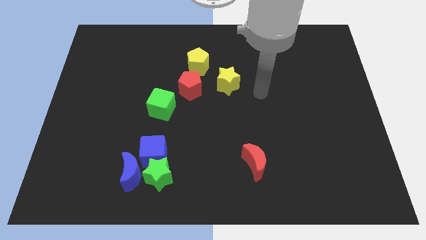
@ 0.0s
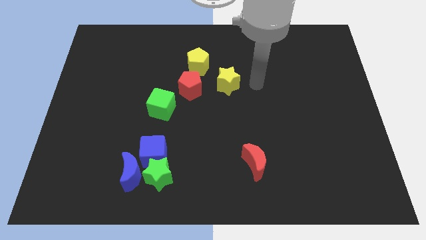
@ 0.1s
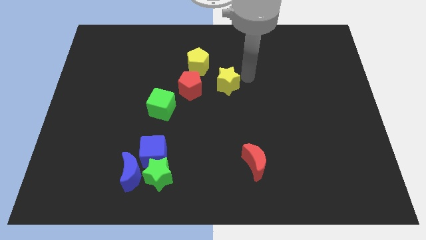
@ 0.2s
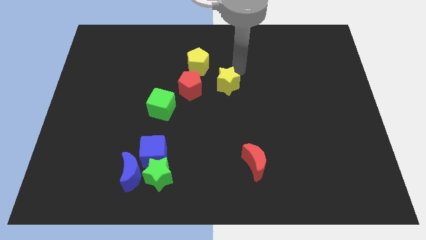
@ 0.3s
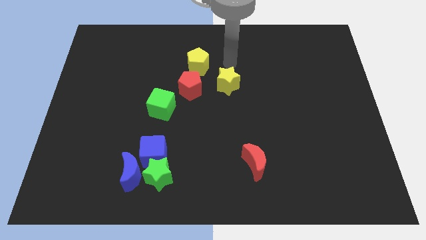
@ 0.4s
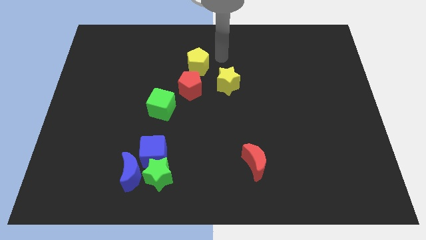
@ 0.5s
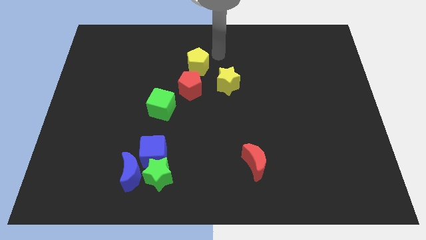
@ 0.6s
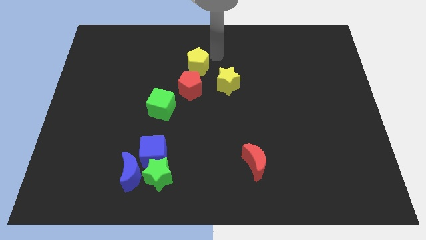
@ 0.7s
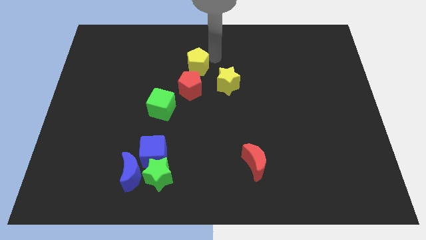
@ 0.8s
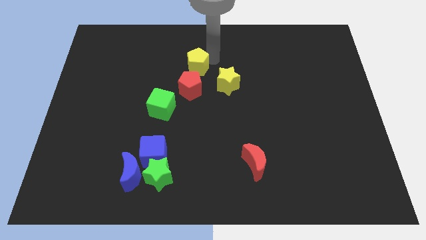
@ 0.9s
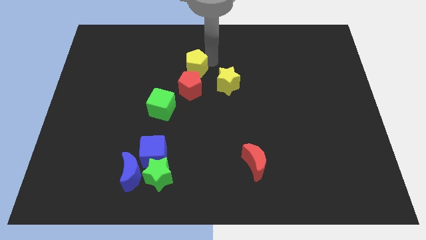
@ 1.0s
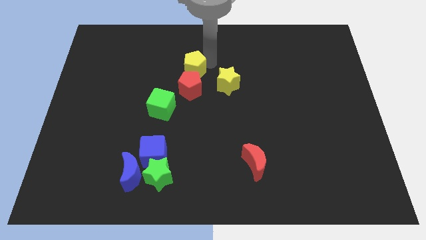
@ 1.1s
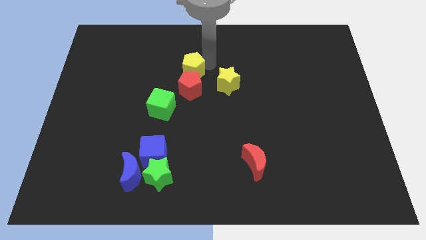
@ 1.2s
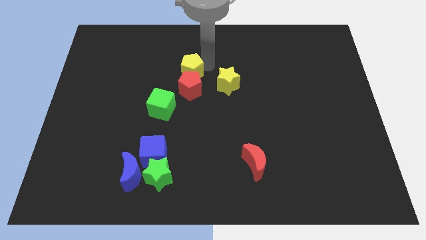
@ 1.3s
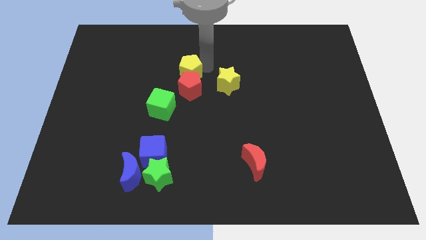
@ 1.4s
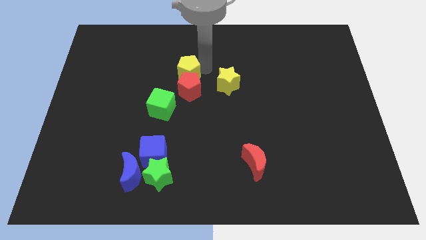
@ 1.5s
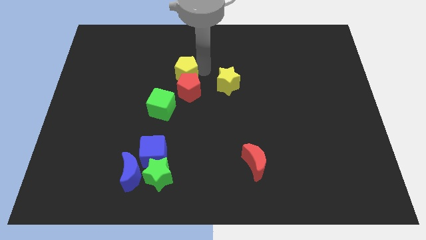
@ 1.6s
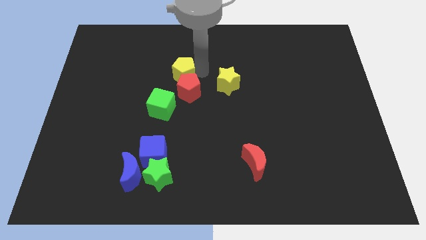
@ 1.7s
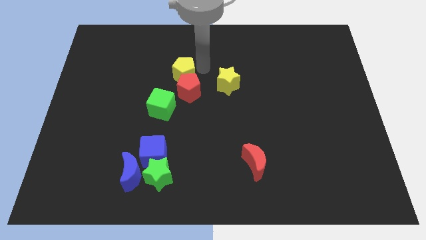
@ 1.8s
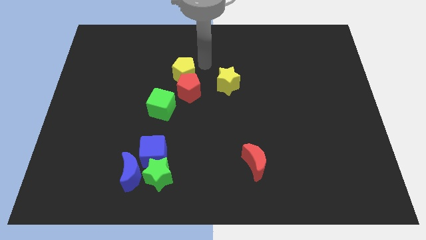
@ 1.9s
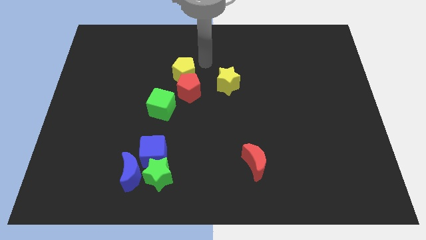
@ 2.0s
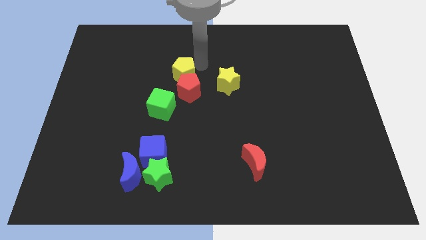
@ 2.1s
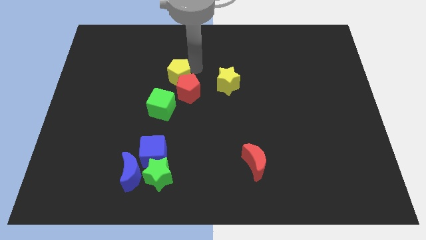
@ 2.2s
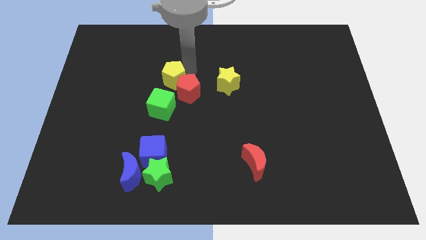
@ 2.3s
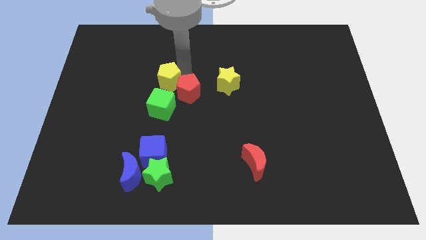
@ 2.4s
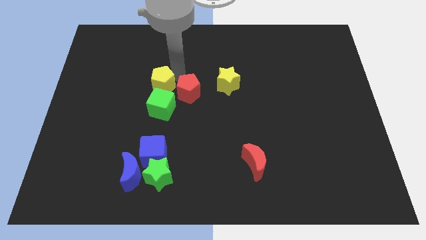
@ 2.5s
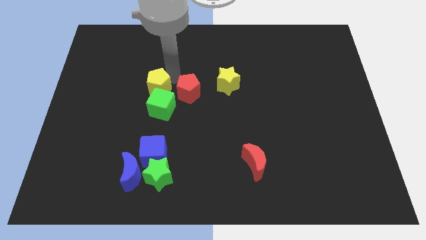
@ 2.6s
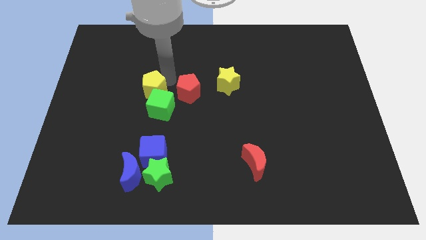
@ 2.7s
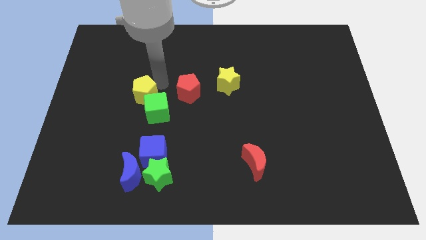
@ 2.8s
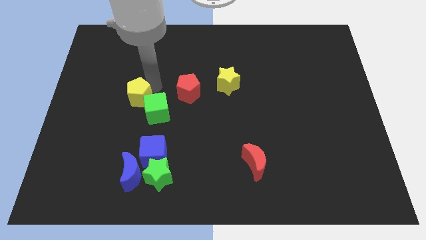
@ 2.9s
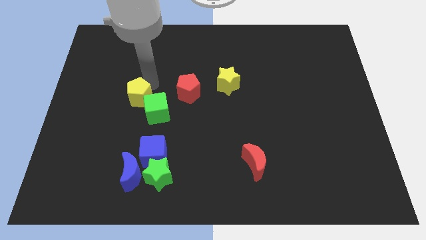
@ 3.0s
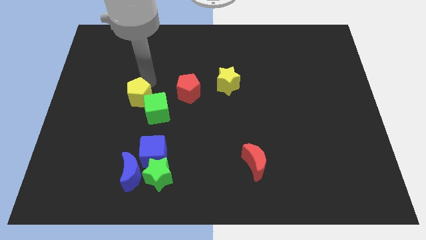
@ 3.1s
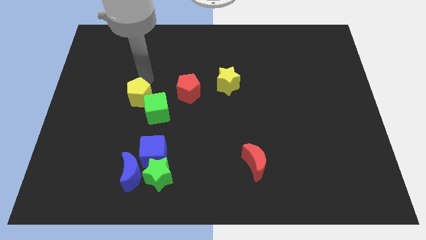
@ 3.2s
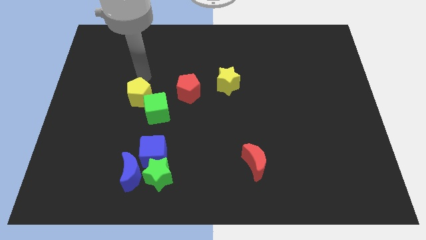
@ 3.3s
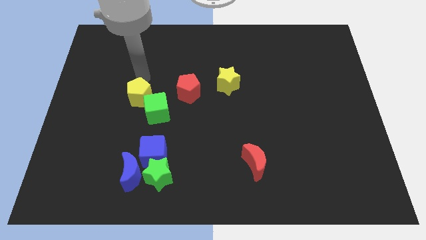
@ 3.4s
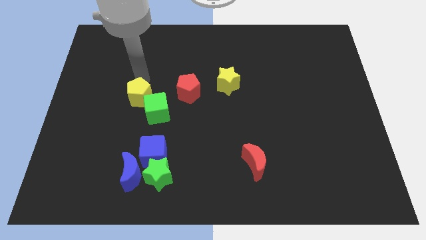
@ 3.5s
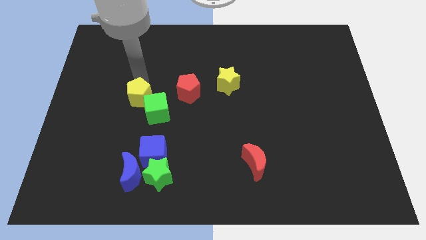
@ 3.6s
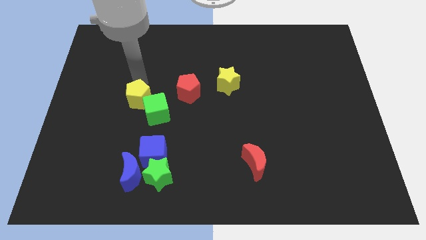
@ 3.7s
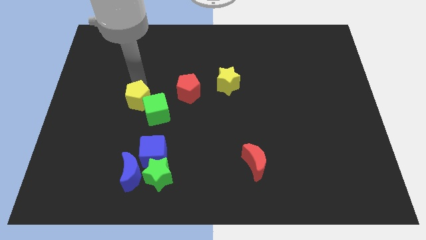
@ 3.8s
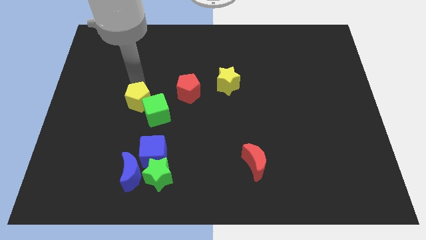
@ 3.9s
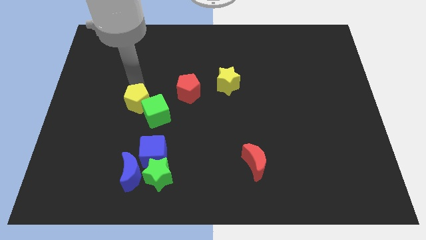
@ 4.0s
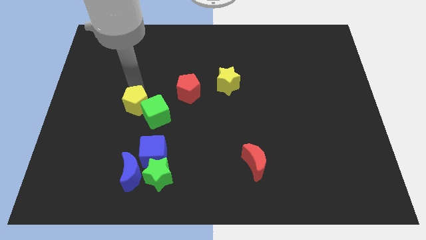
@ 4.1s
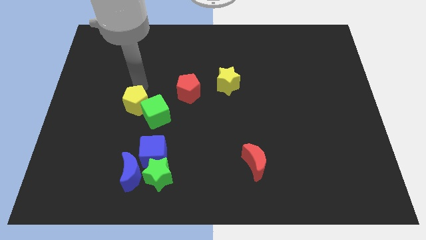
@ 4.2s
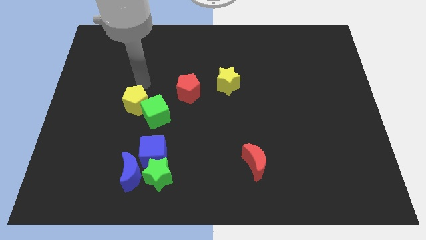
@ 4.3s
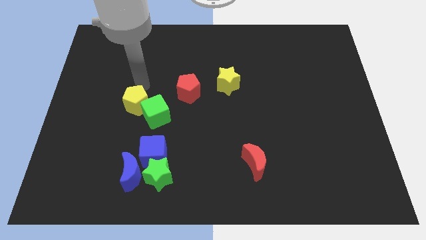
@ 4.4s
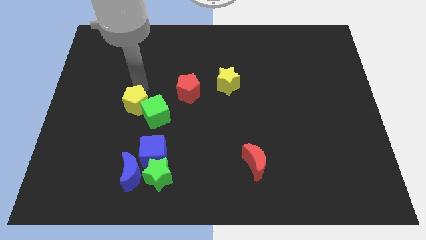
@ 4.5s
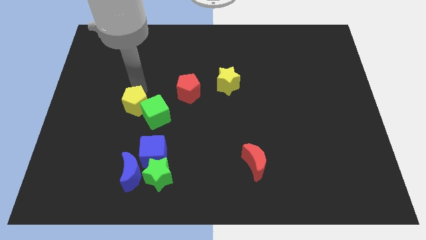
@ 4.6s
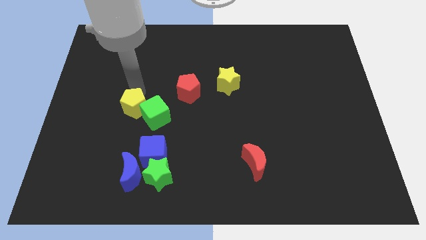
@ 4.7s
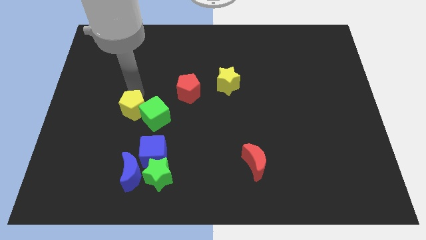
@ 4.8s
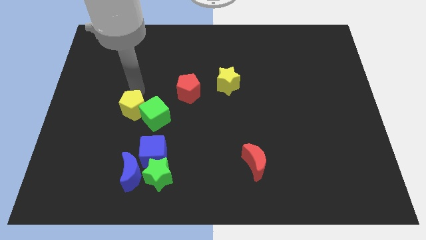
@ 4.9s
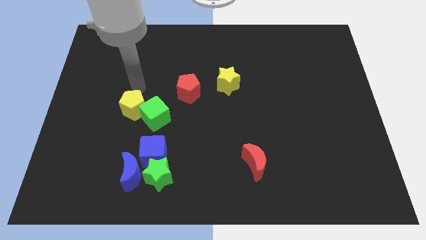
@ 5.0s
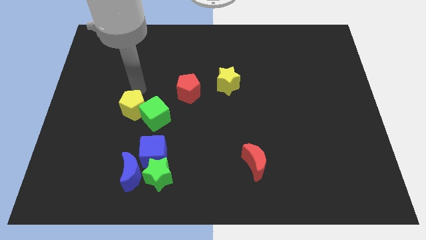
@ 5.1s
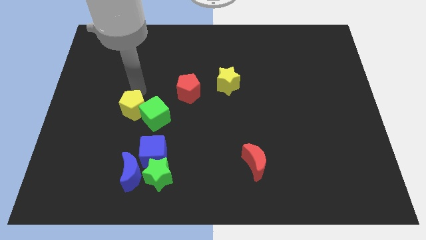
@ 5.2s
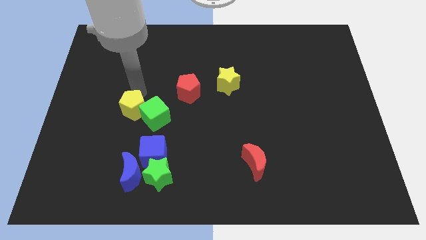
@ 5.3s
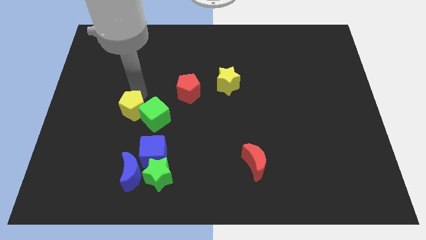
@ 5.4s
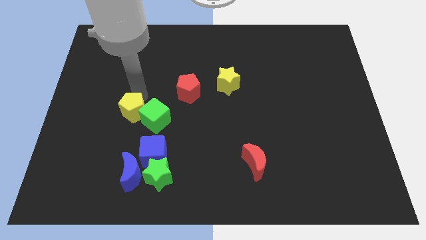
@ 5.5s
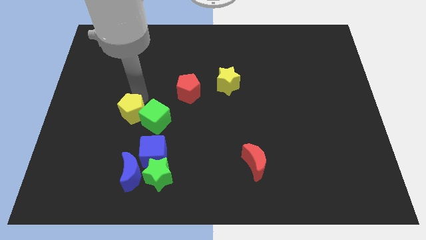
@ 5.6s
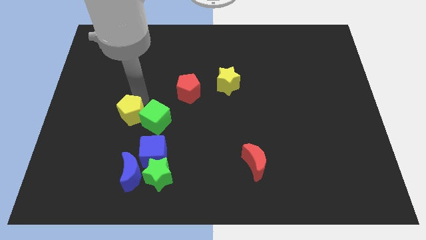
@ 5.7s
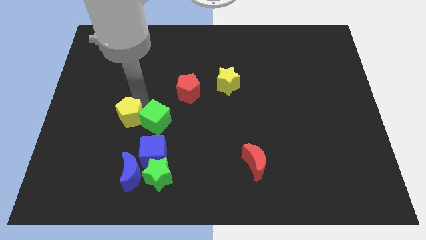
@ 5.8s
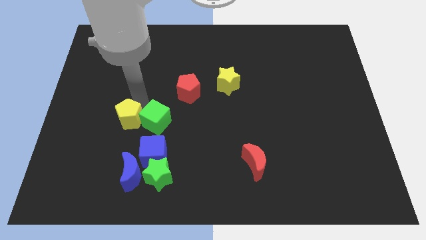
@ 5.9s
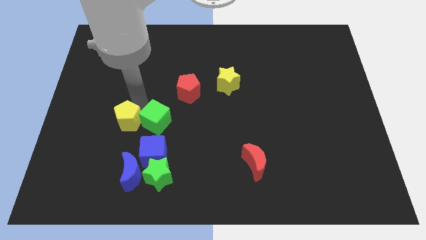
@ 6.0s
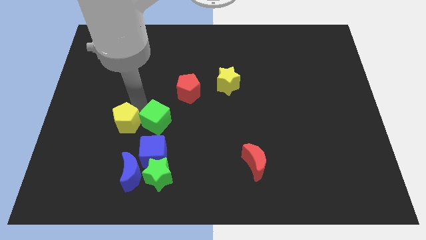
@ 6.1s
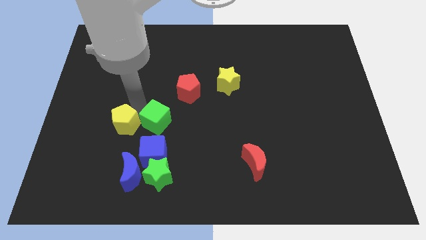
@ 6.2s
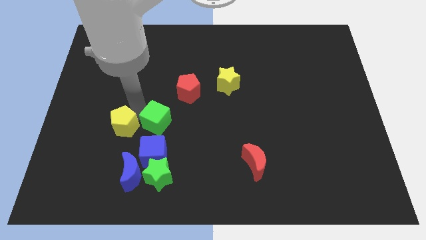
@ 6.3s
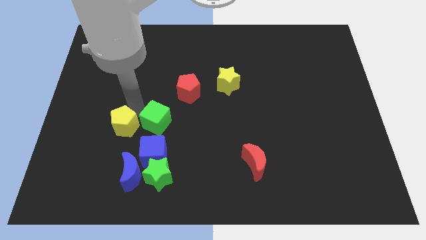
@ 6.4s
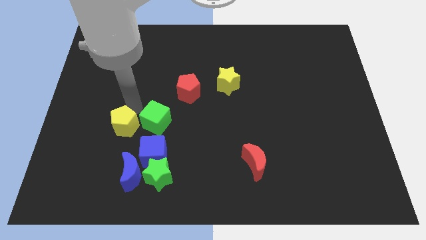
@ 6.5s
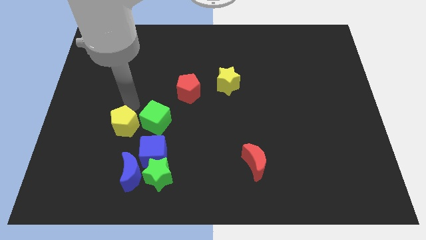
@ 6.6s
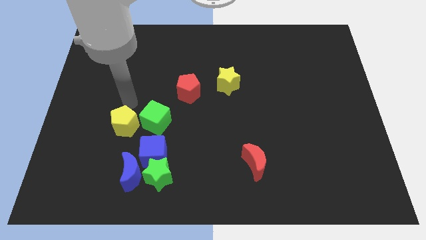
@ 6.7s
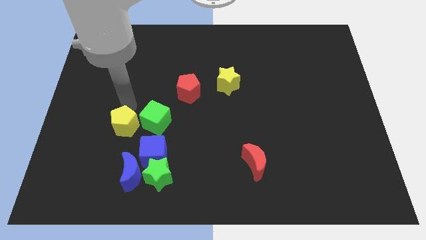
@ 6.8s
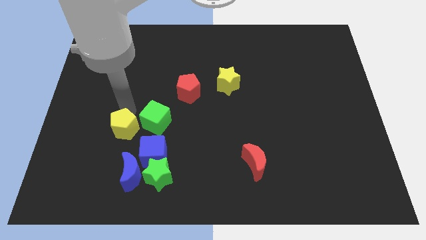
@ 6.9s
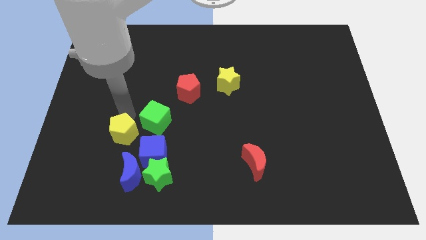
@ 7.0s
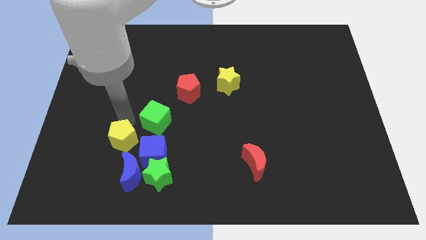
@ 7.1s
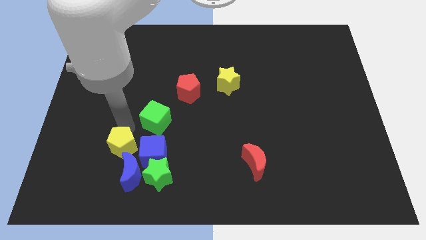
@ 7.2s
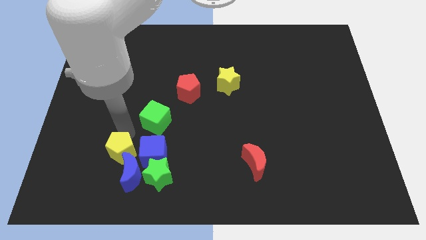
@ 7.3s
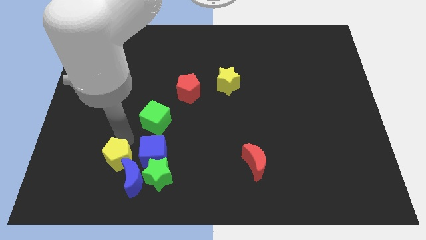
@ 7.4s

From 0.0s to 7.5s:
slide the yellow pentagon to the bottom left side of the blue cube

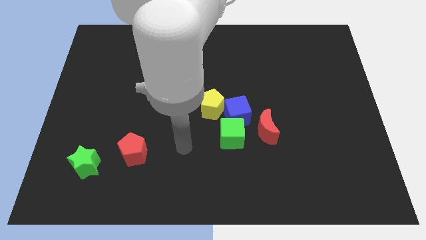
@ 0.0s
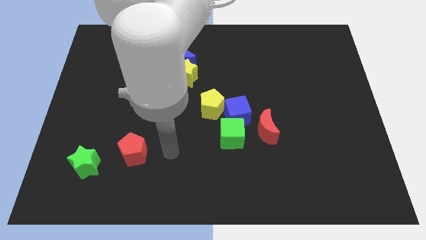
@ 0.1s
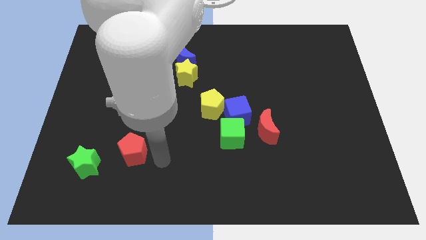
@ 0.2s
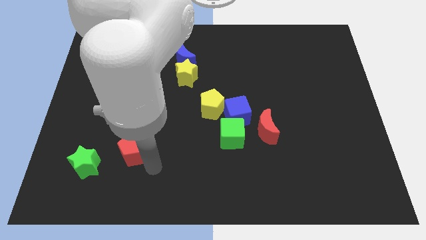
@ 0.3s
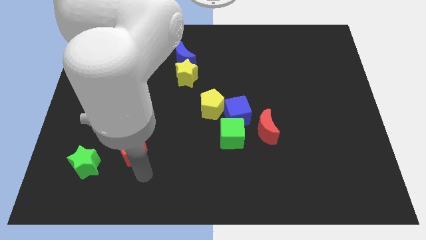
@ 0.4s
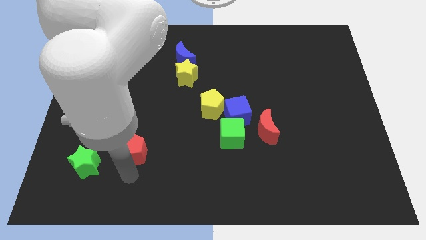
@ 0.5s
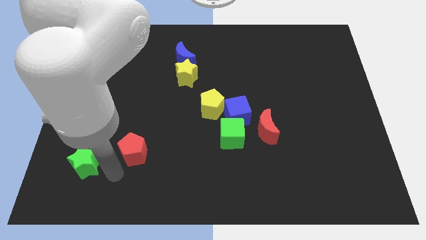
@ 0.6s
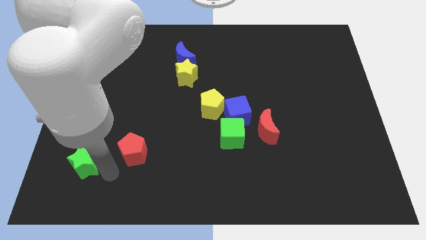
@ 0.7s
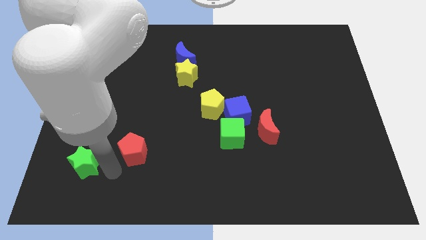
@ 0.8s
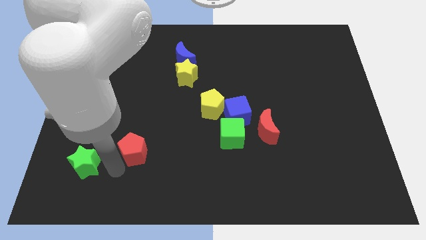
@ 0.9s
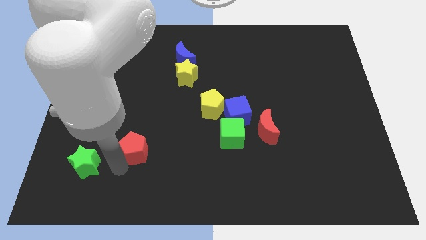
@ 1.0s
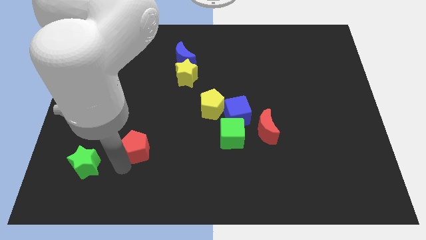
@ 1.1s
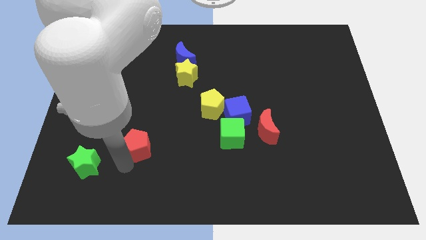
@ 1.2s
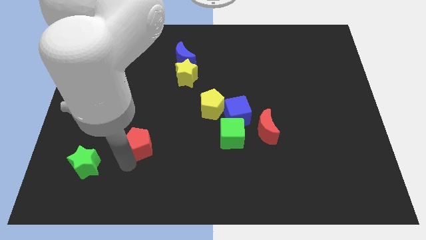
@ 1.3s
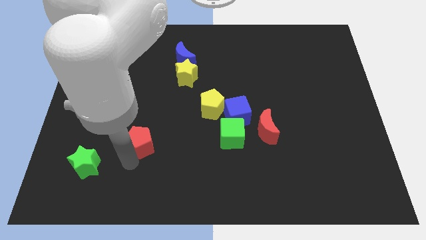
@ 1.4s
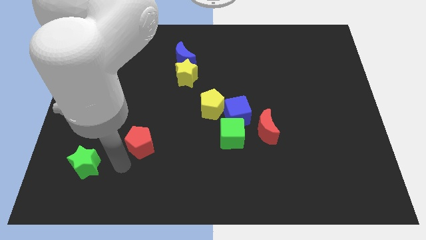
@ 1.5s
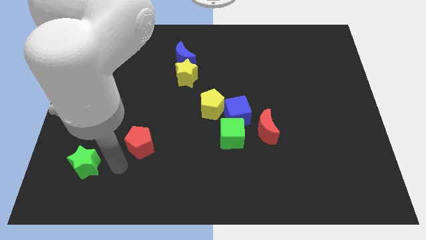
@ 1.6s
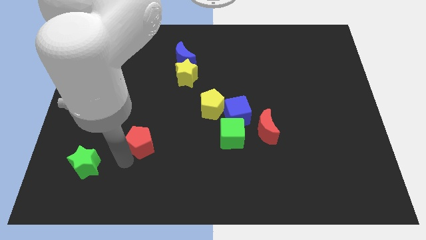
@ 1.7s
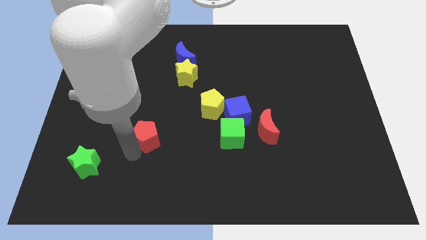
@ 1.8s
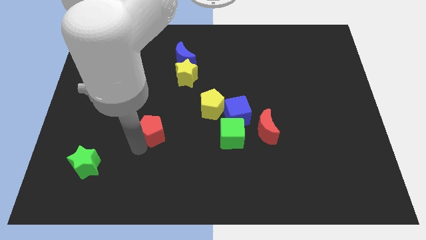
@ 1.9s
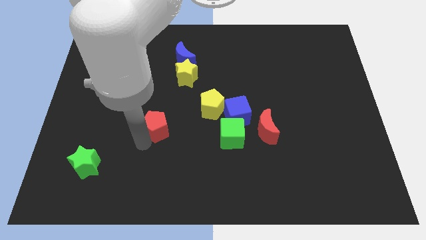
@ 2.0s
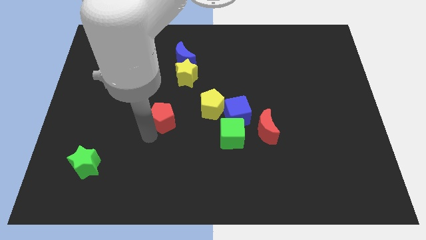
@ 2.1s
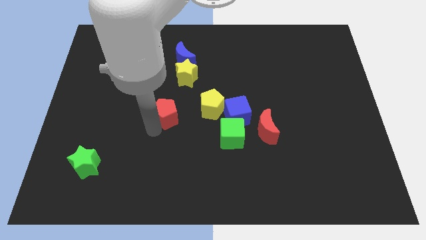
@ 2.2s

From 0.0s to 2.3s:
slide the red pentagon to the bottom of the yellow star
